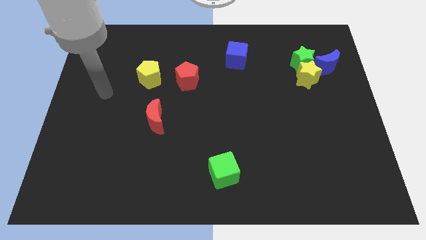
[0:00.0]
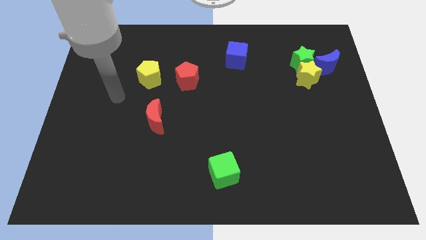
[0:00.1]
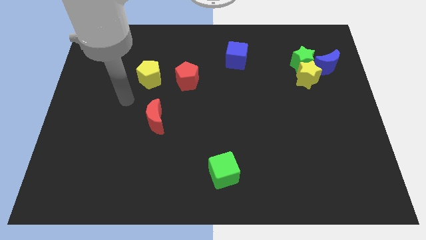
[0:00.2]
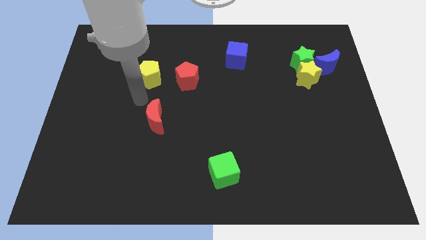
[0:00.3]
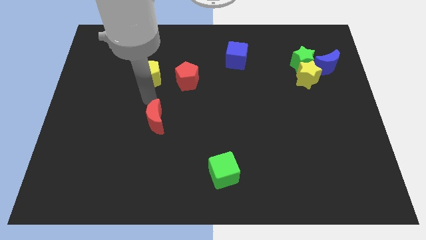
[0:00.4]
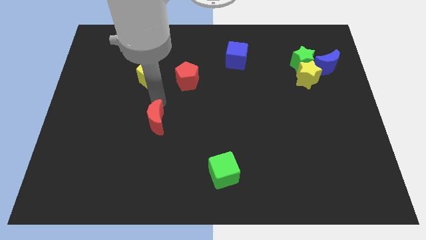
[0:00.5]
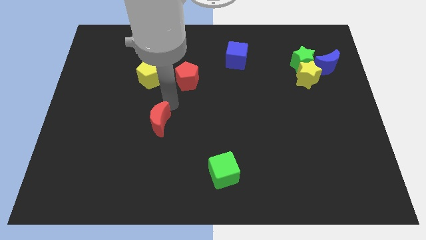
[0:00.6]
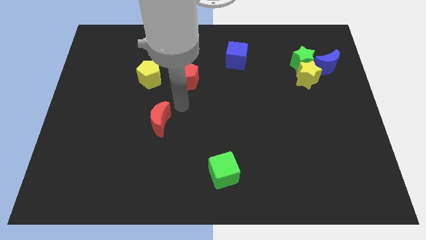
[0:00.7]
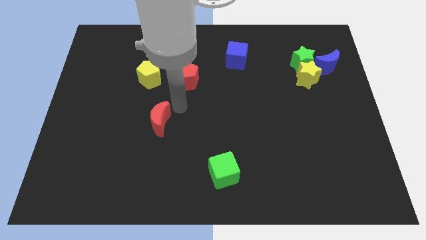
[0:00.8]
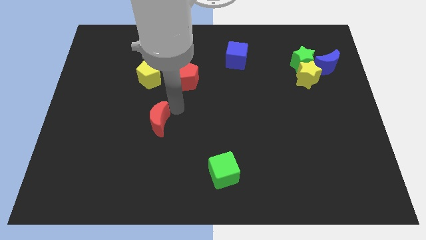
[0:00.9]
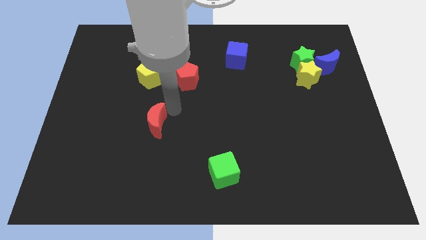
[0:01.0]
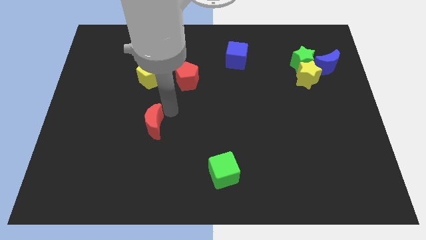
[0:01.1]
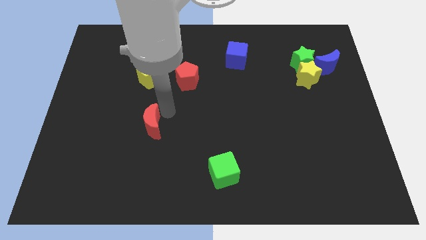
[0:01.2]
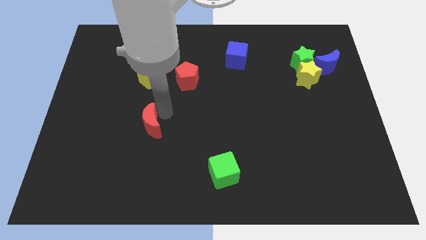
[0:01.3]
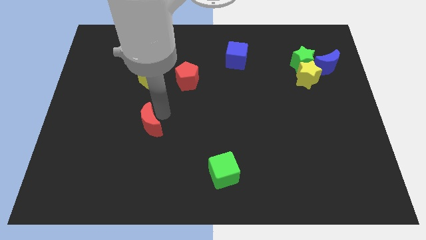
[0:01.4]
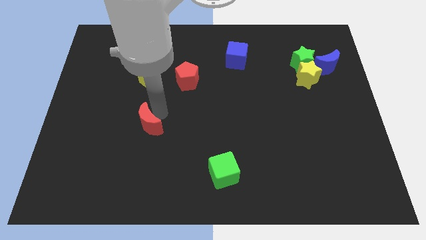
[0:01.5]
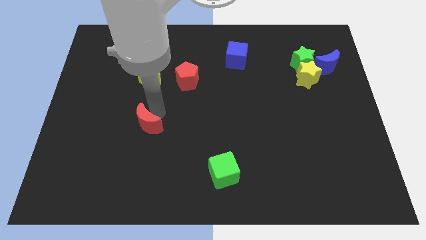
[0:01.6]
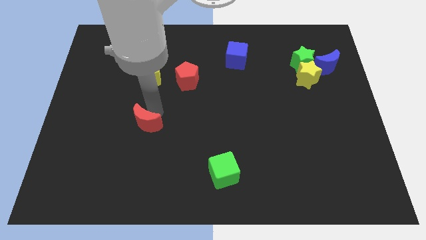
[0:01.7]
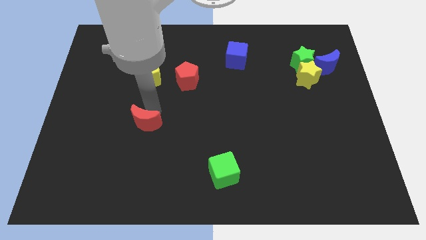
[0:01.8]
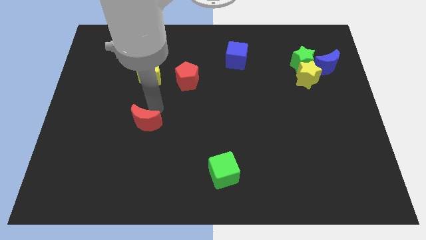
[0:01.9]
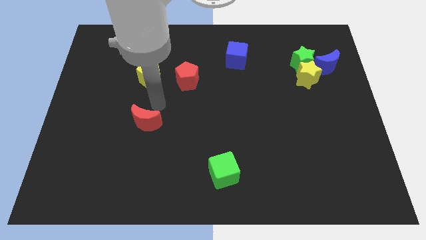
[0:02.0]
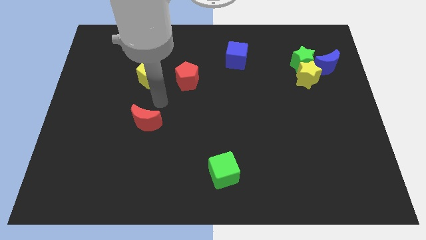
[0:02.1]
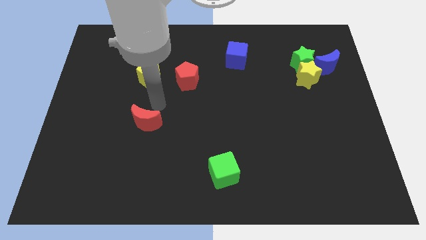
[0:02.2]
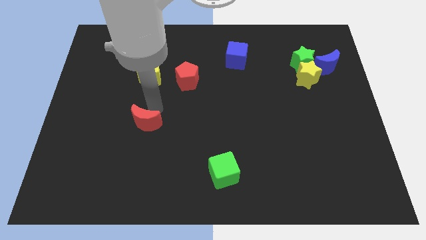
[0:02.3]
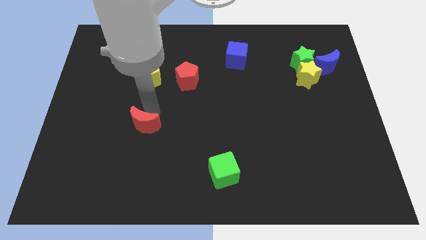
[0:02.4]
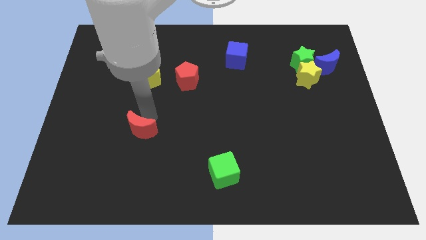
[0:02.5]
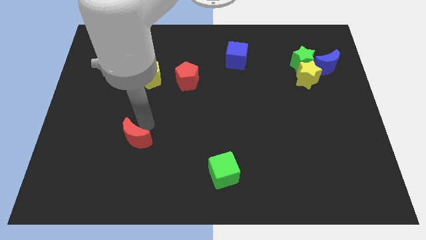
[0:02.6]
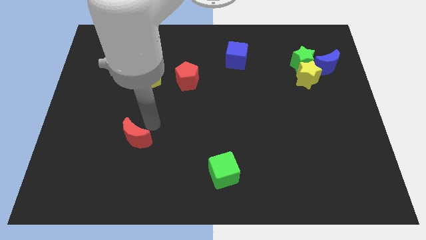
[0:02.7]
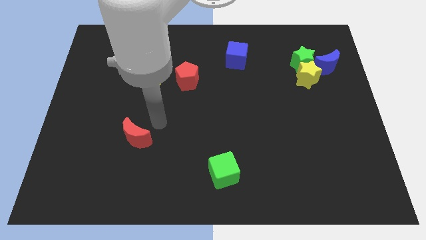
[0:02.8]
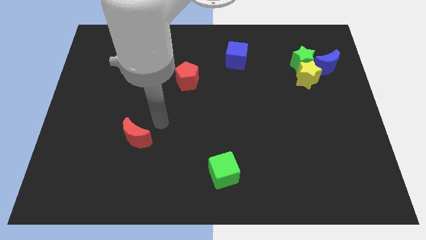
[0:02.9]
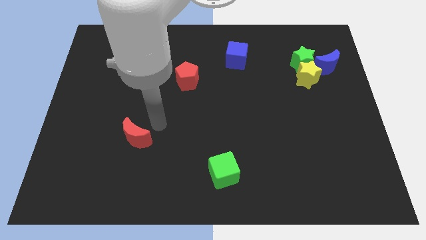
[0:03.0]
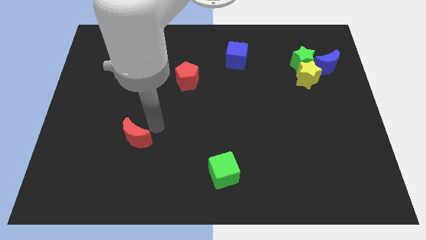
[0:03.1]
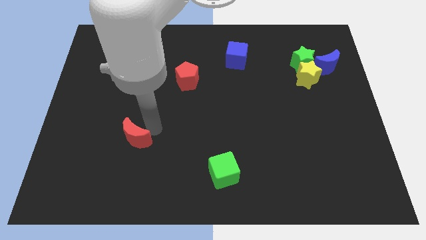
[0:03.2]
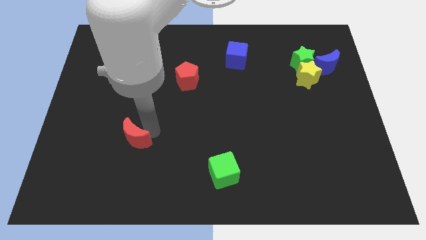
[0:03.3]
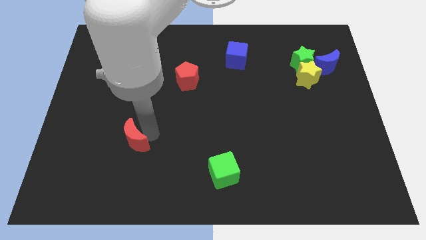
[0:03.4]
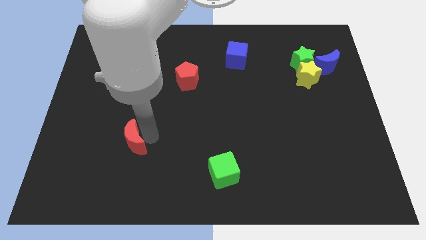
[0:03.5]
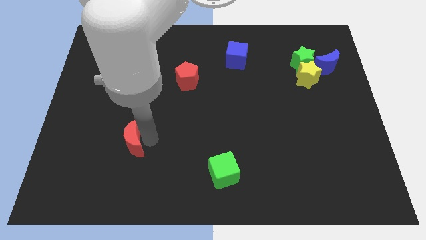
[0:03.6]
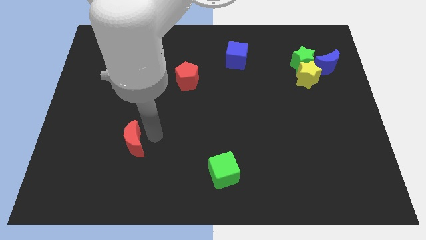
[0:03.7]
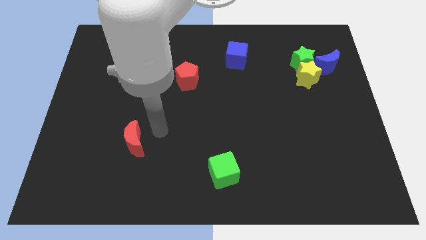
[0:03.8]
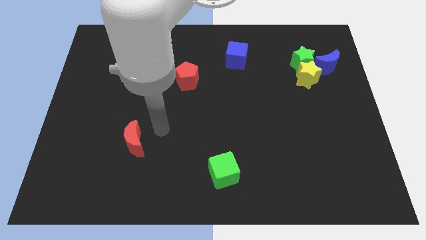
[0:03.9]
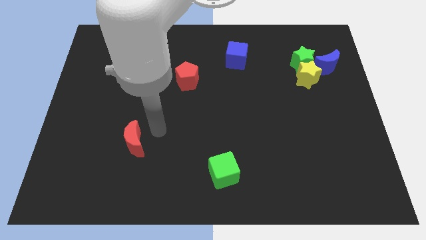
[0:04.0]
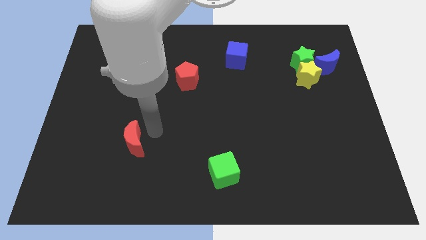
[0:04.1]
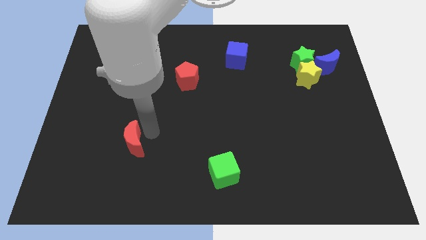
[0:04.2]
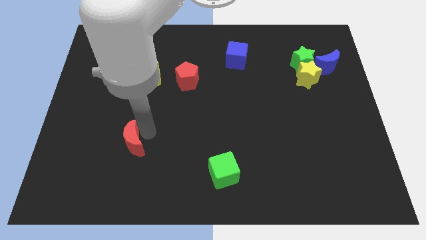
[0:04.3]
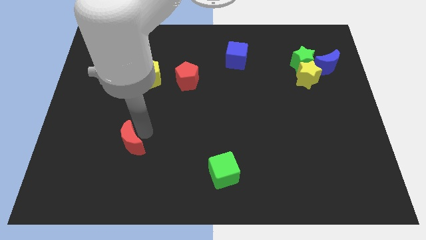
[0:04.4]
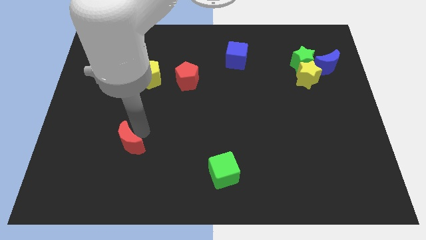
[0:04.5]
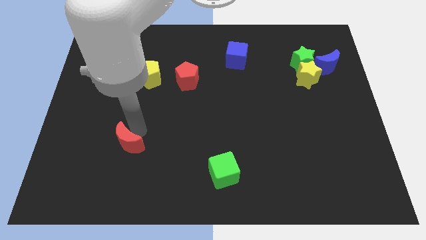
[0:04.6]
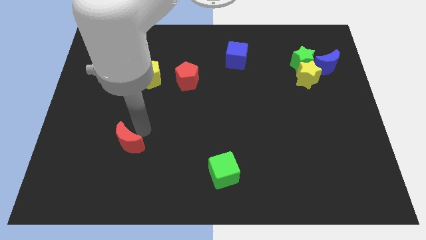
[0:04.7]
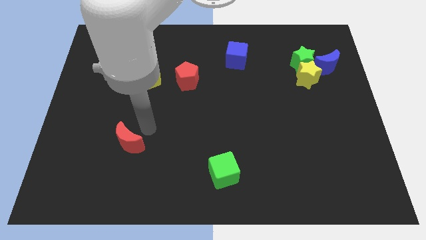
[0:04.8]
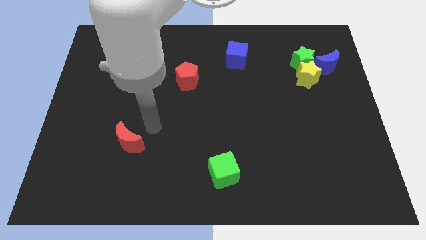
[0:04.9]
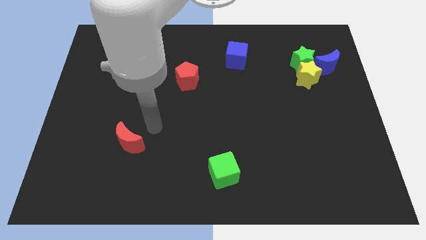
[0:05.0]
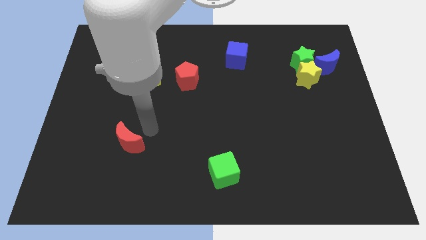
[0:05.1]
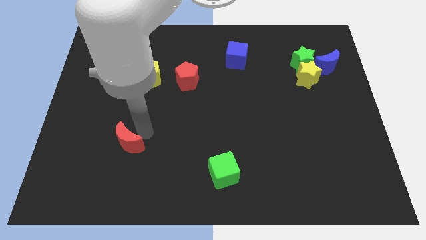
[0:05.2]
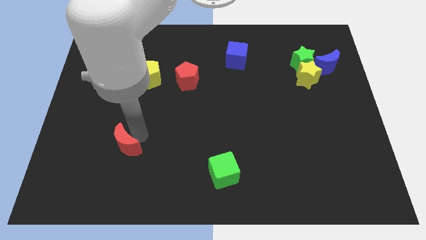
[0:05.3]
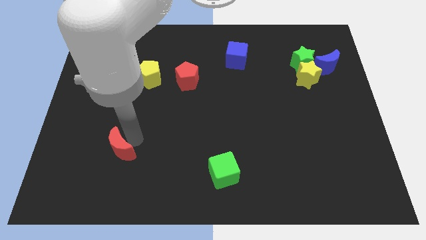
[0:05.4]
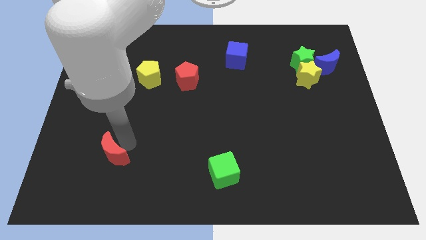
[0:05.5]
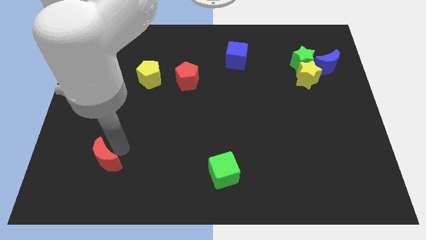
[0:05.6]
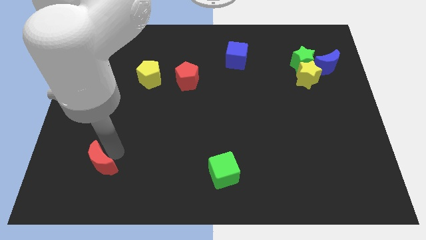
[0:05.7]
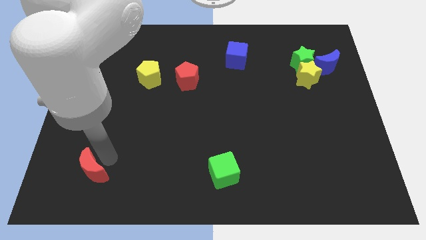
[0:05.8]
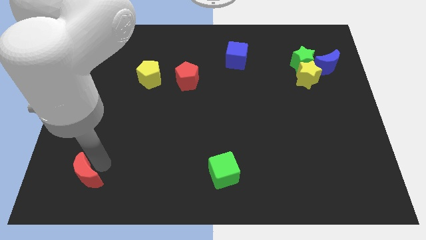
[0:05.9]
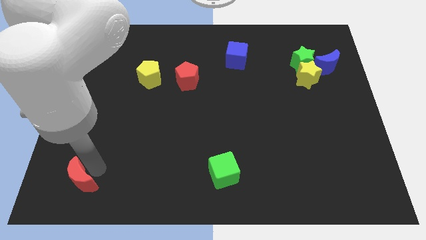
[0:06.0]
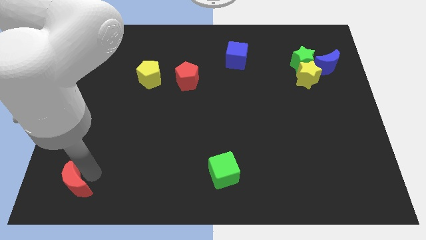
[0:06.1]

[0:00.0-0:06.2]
push the red moon to the bottom left of the board

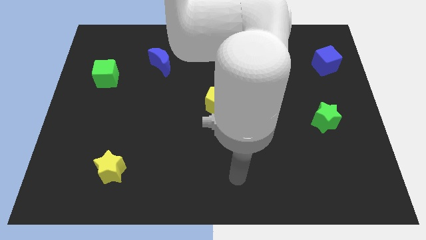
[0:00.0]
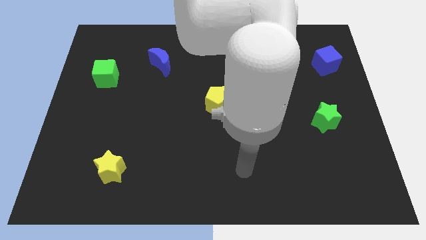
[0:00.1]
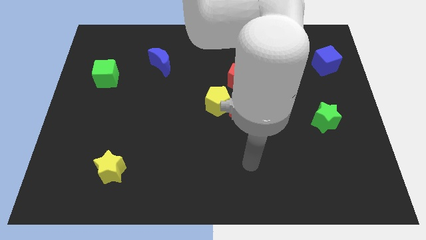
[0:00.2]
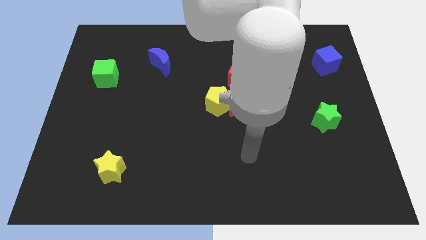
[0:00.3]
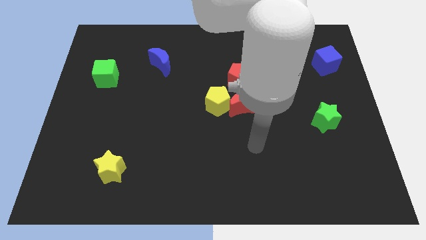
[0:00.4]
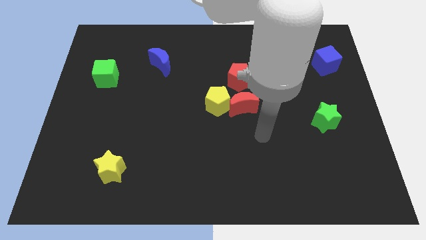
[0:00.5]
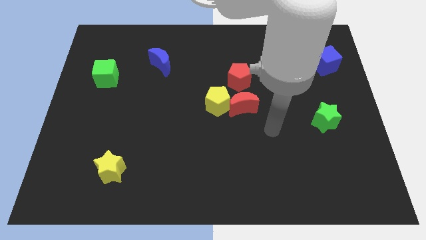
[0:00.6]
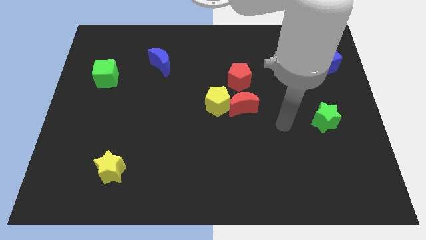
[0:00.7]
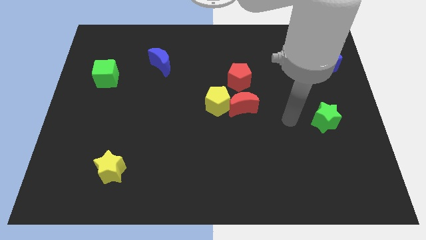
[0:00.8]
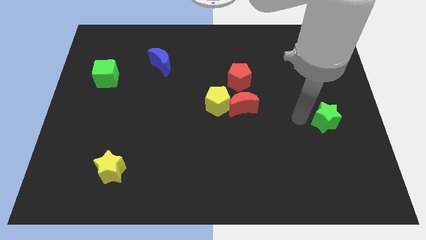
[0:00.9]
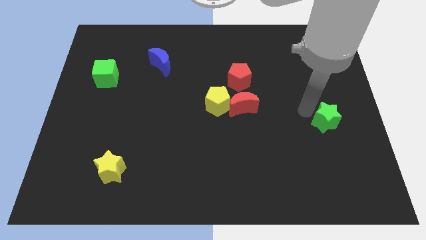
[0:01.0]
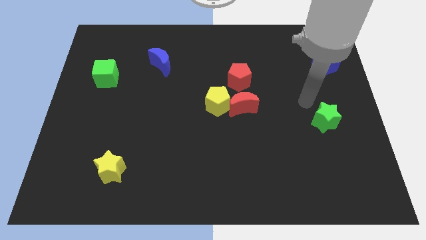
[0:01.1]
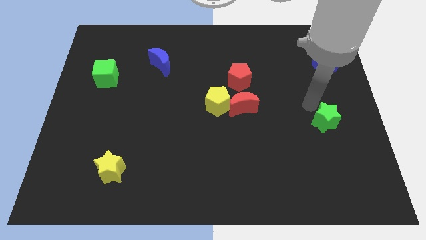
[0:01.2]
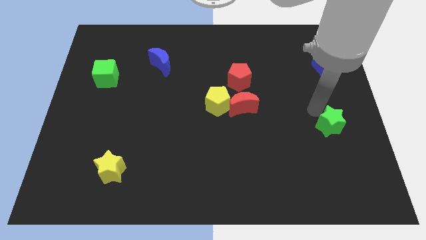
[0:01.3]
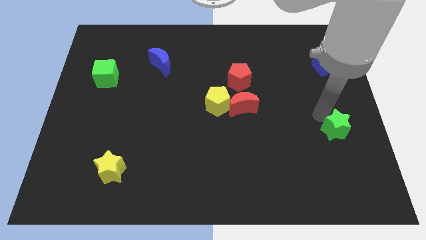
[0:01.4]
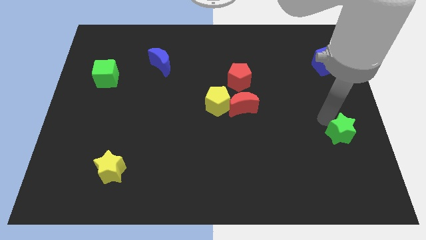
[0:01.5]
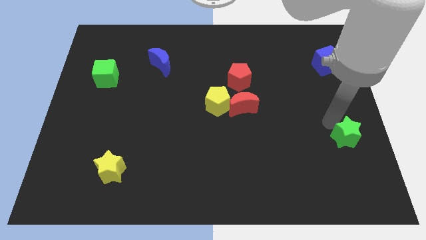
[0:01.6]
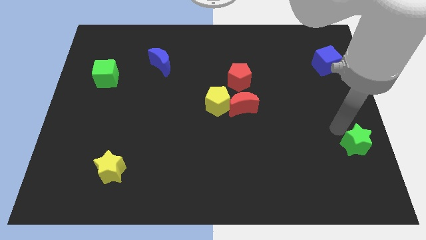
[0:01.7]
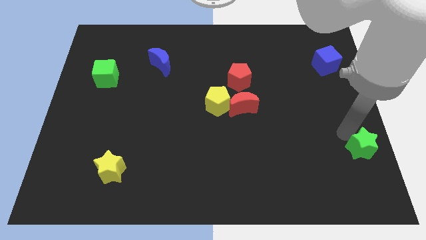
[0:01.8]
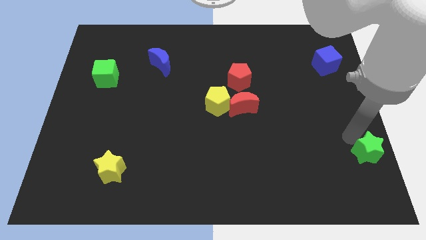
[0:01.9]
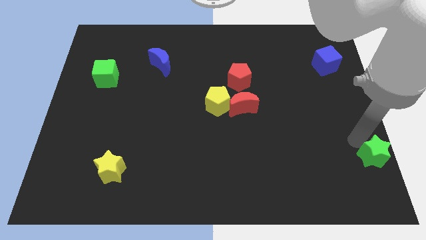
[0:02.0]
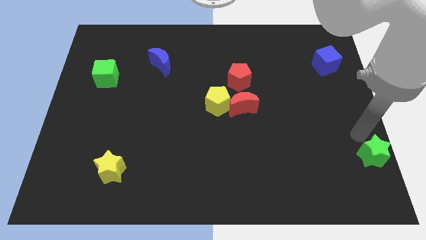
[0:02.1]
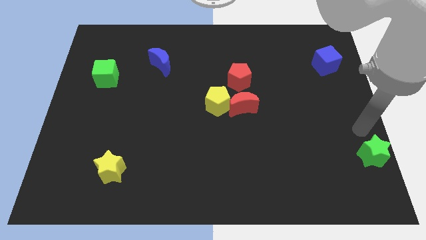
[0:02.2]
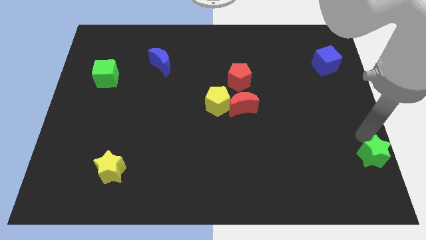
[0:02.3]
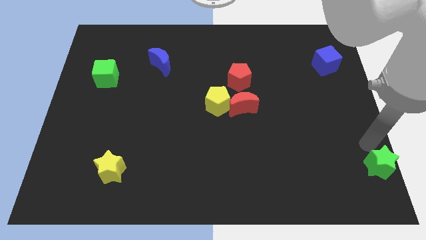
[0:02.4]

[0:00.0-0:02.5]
move the green star to the bottom right of the board
